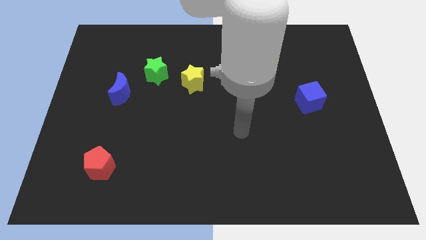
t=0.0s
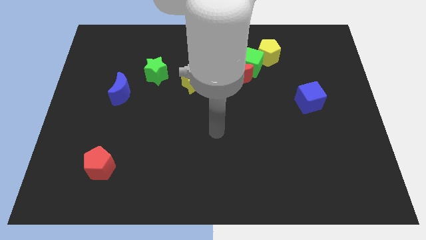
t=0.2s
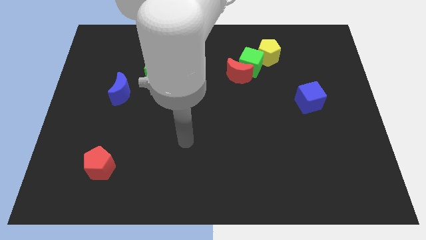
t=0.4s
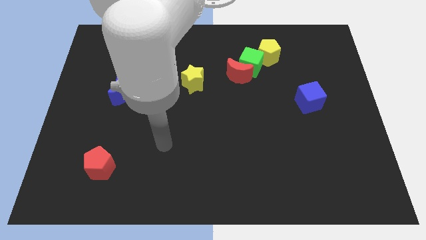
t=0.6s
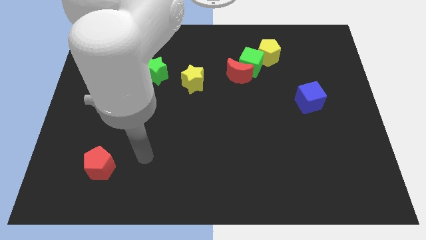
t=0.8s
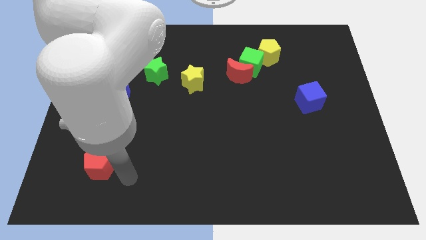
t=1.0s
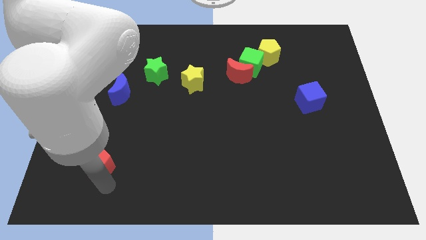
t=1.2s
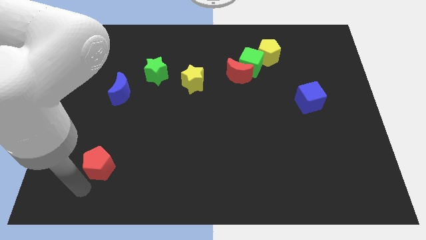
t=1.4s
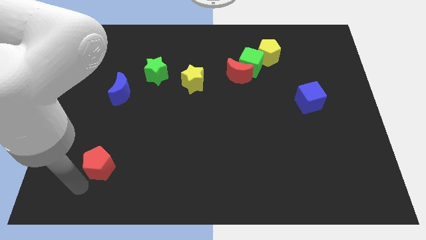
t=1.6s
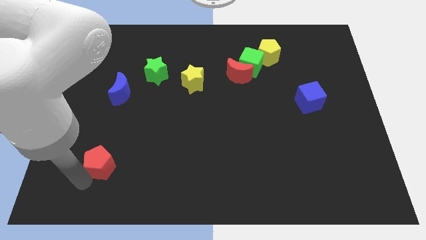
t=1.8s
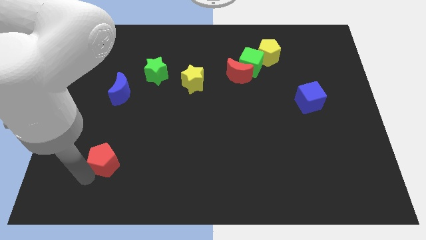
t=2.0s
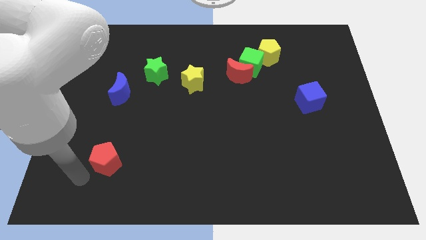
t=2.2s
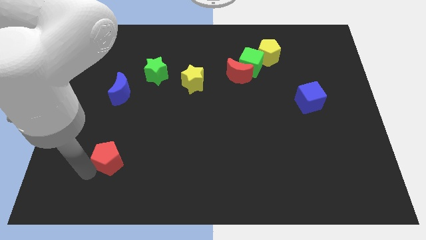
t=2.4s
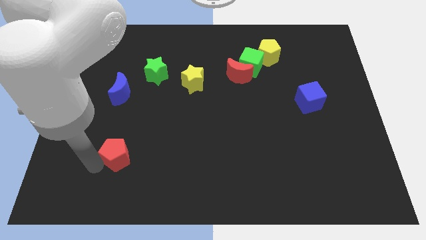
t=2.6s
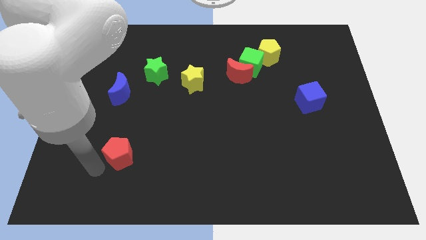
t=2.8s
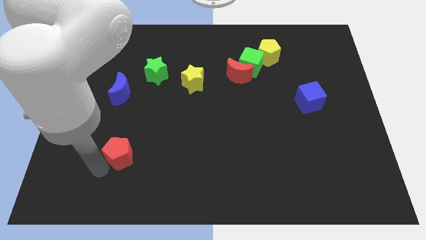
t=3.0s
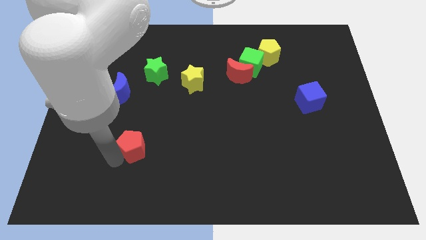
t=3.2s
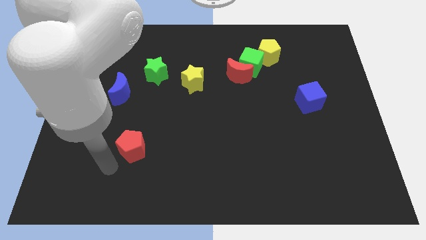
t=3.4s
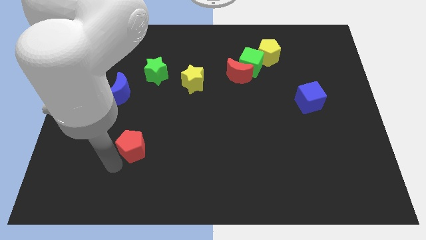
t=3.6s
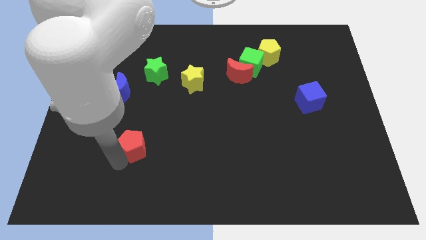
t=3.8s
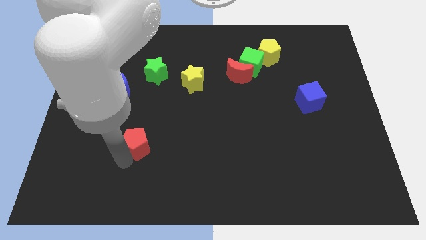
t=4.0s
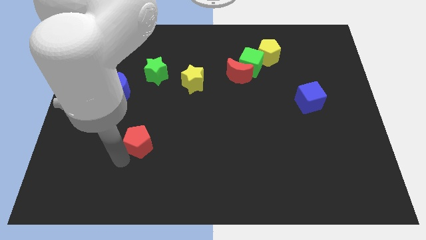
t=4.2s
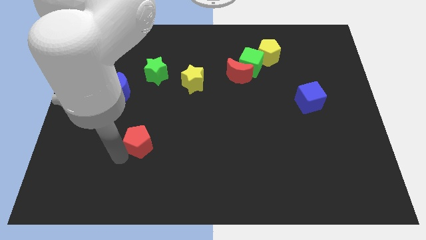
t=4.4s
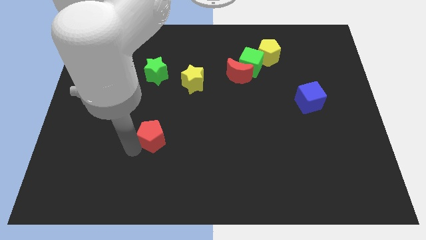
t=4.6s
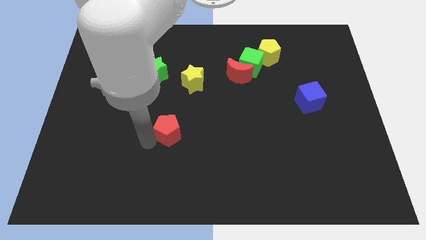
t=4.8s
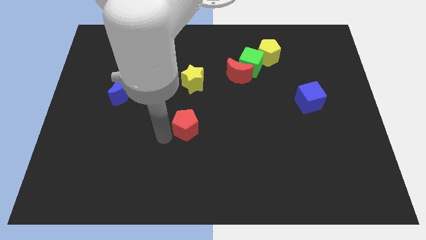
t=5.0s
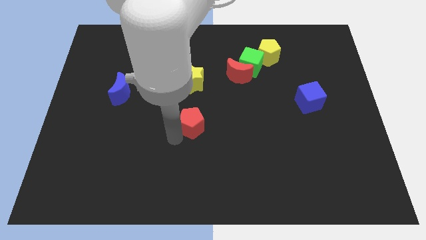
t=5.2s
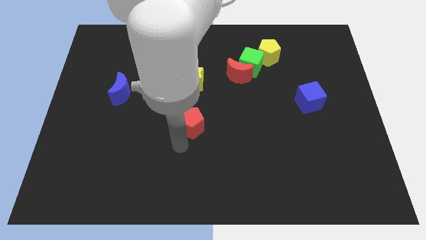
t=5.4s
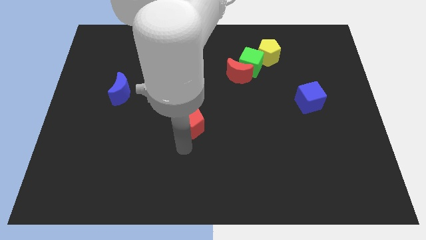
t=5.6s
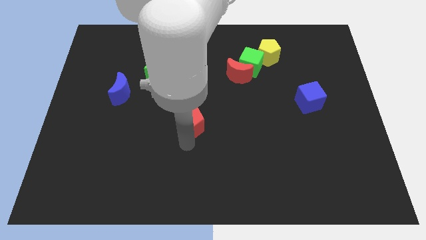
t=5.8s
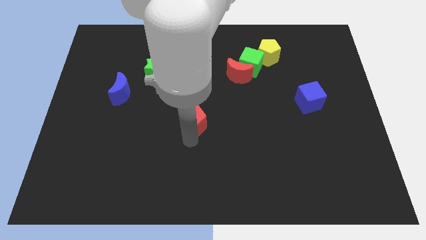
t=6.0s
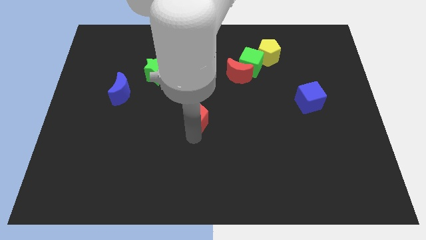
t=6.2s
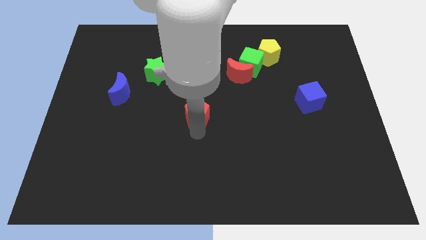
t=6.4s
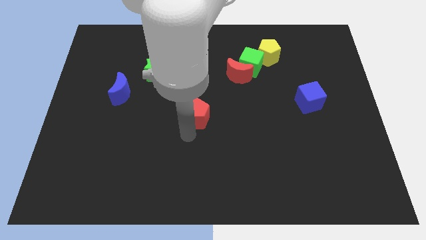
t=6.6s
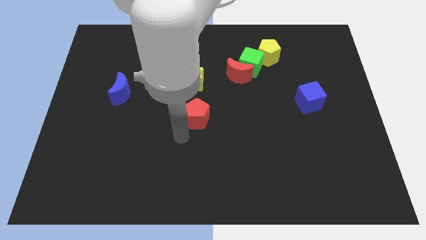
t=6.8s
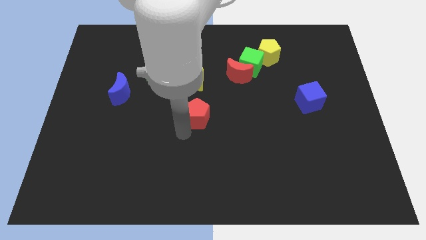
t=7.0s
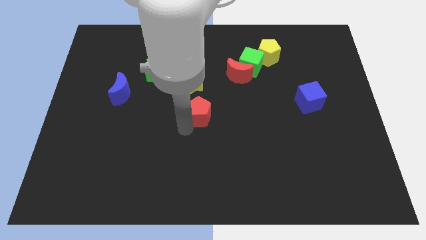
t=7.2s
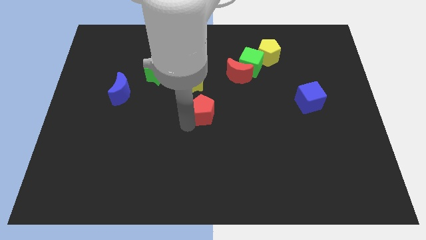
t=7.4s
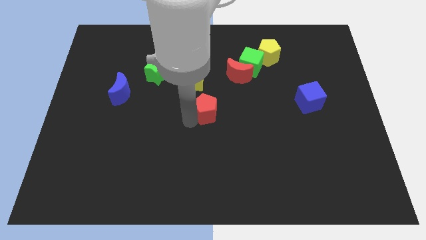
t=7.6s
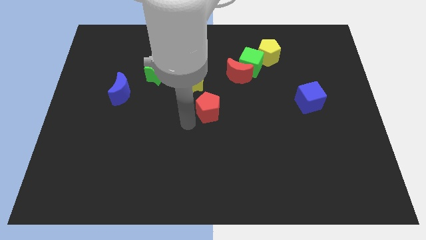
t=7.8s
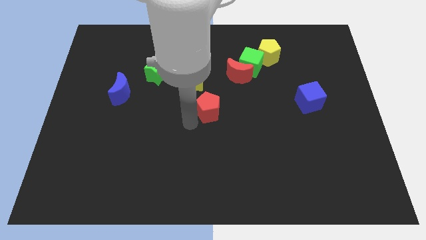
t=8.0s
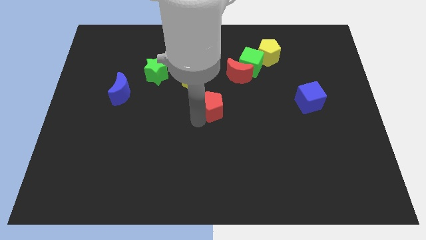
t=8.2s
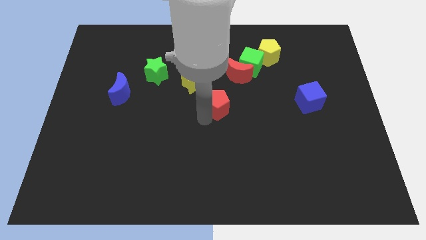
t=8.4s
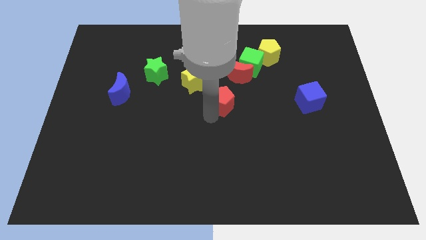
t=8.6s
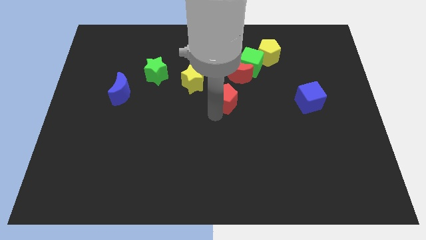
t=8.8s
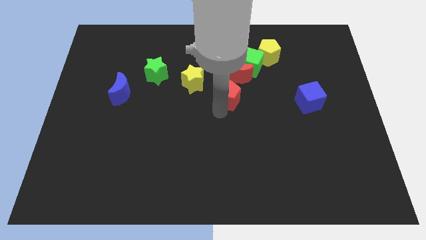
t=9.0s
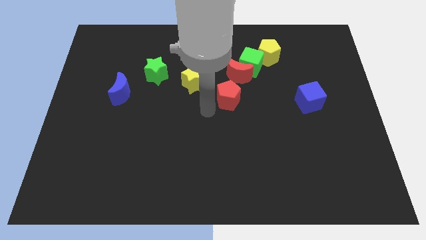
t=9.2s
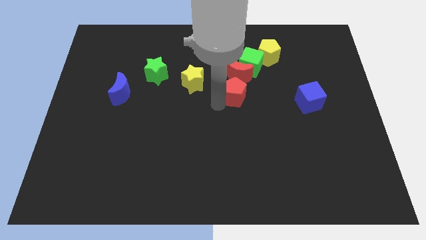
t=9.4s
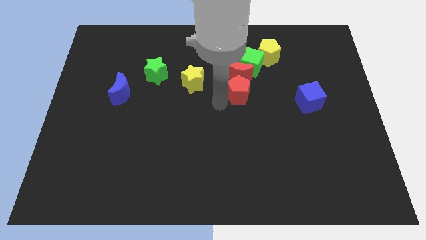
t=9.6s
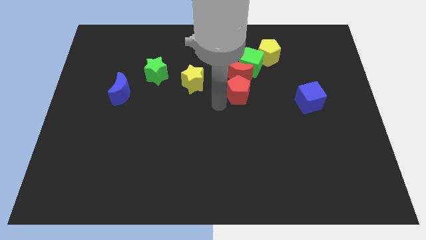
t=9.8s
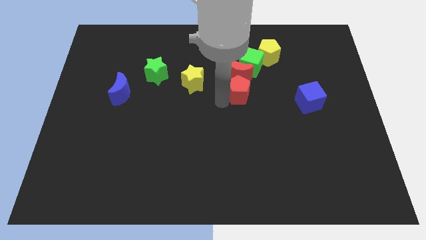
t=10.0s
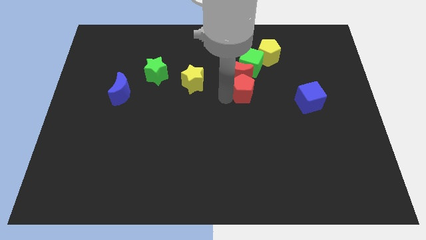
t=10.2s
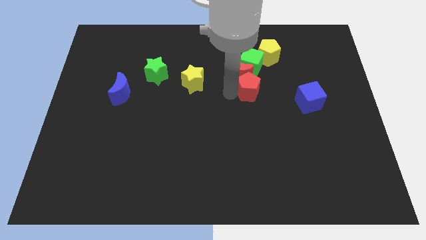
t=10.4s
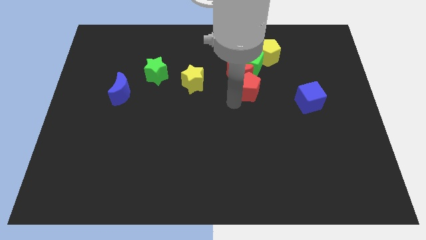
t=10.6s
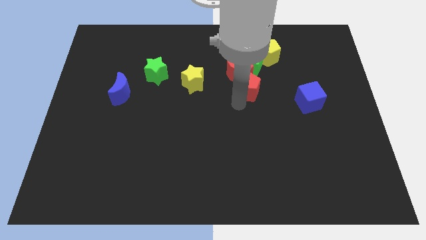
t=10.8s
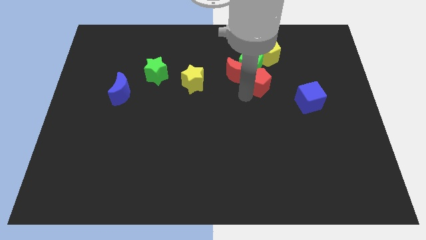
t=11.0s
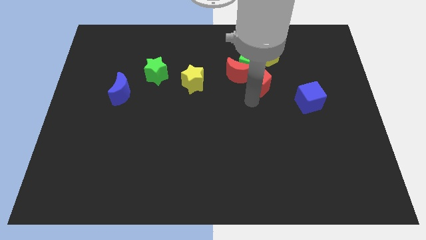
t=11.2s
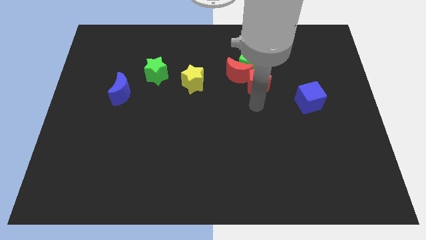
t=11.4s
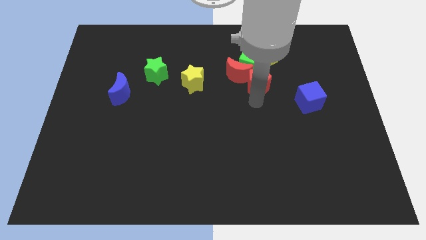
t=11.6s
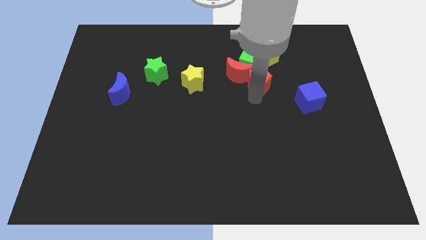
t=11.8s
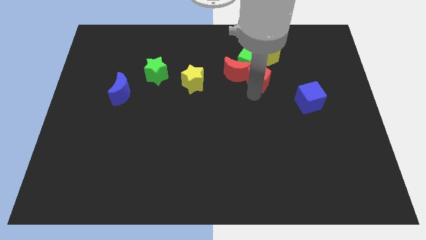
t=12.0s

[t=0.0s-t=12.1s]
move the red pentagon towards the green cube

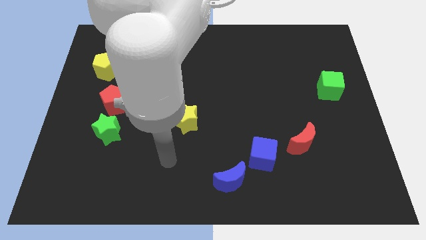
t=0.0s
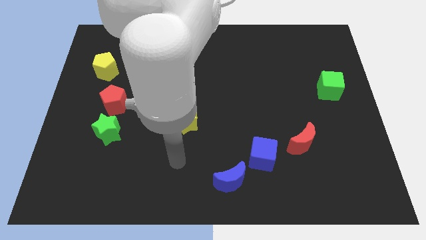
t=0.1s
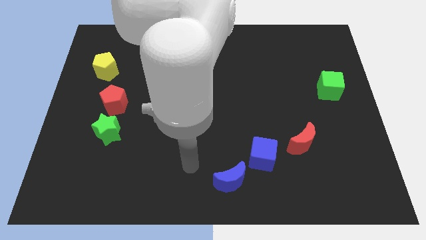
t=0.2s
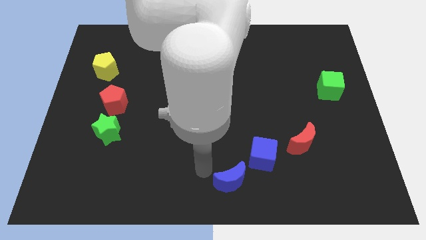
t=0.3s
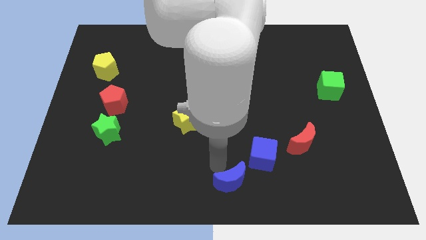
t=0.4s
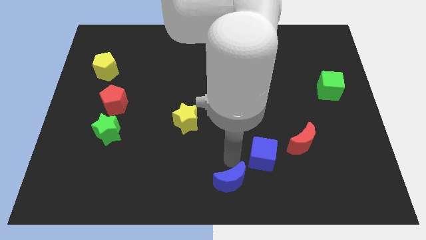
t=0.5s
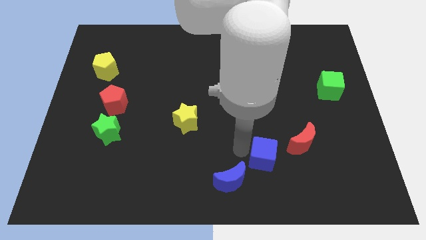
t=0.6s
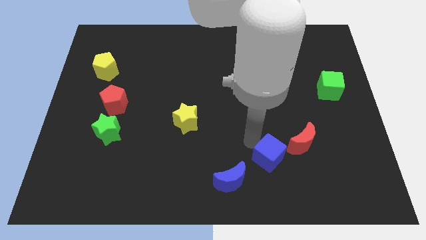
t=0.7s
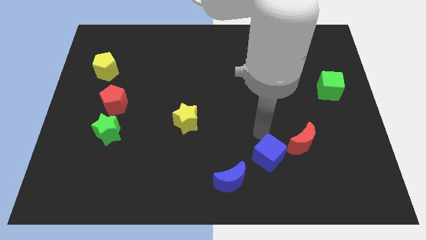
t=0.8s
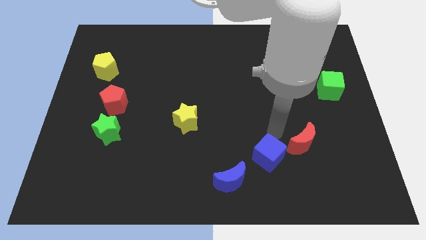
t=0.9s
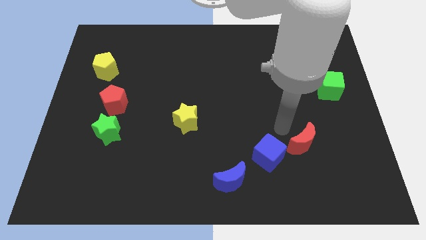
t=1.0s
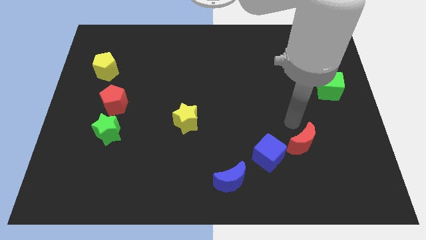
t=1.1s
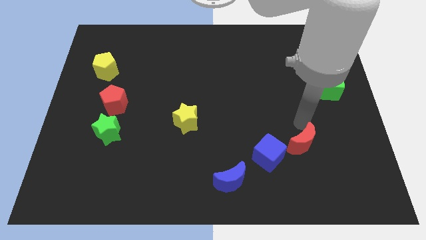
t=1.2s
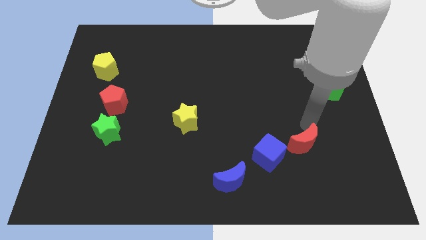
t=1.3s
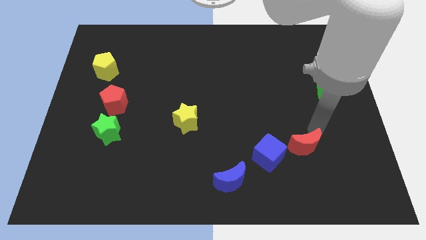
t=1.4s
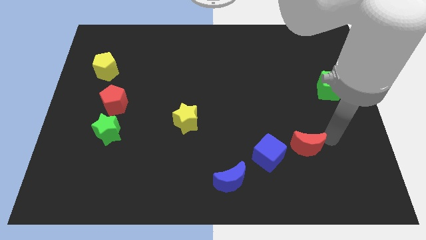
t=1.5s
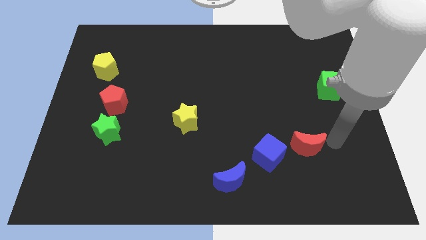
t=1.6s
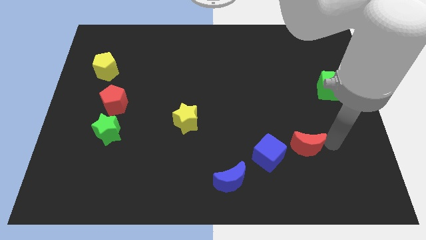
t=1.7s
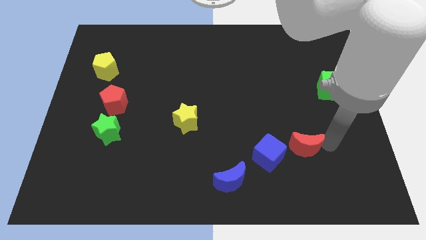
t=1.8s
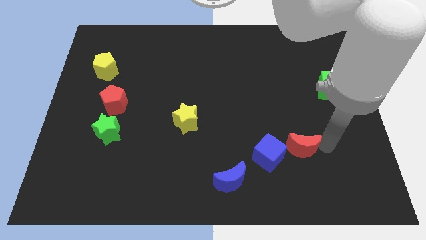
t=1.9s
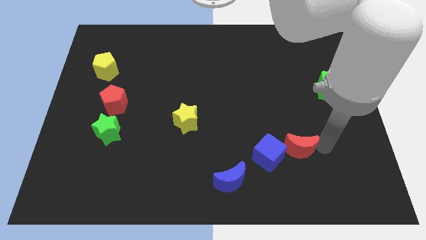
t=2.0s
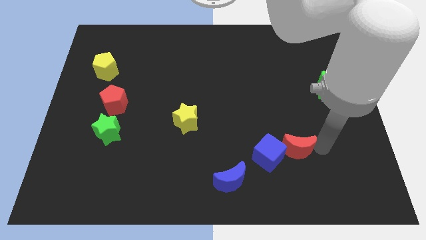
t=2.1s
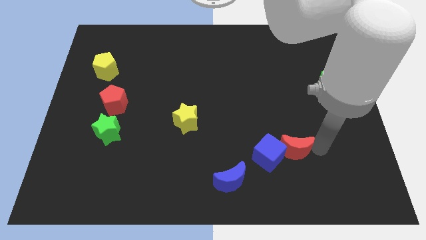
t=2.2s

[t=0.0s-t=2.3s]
move the red moon towards the blue cube
